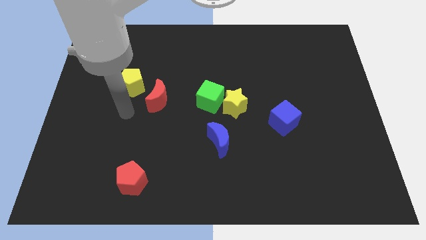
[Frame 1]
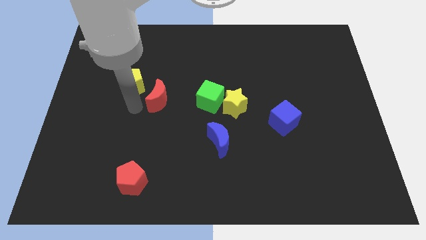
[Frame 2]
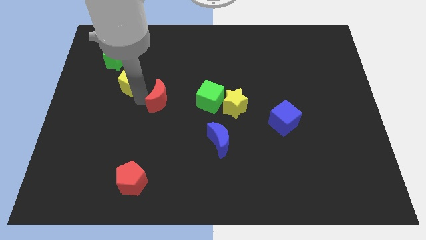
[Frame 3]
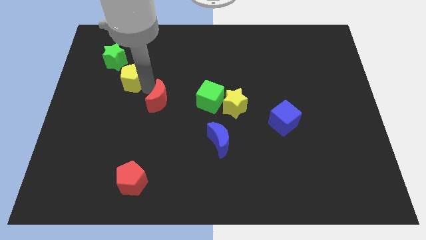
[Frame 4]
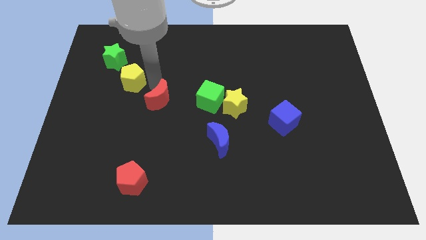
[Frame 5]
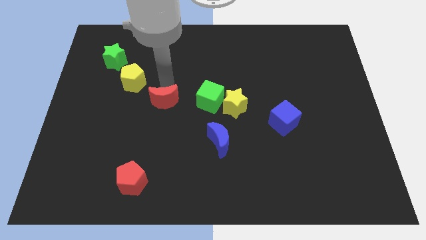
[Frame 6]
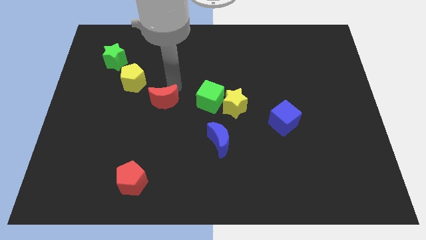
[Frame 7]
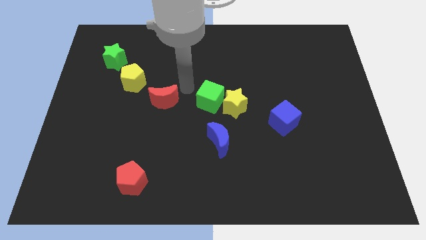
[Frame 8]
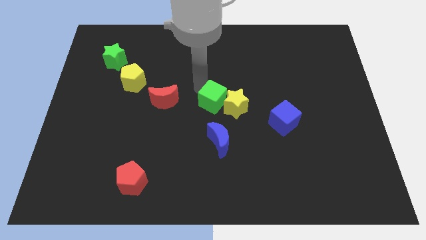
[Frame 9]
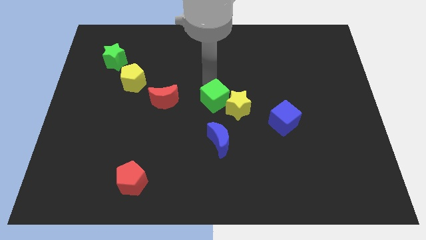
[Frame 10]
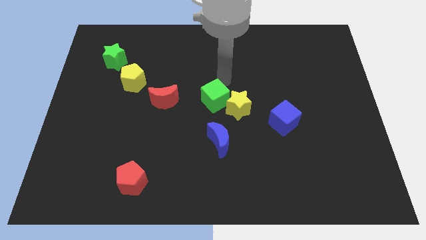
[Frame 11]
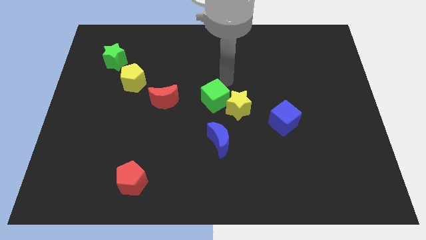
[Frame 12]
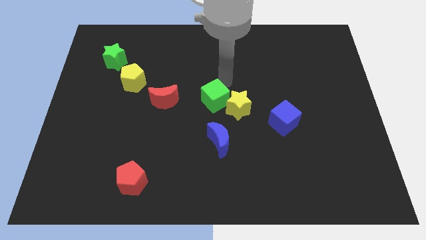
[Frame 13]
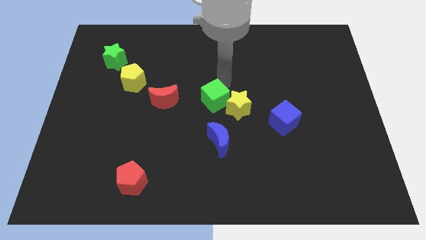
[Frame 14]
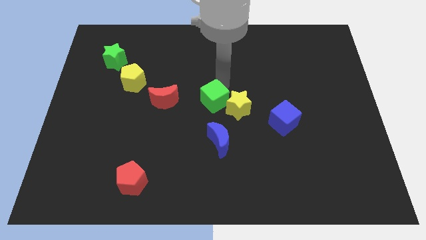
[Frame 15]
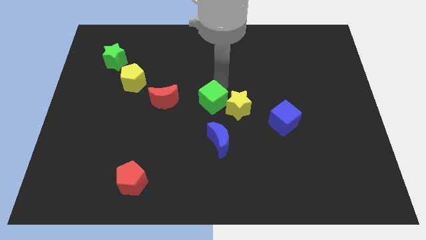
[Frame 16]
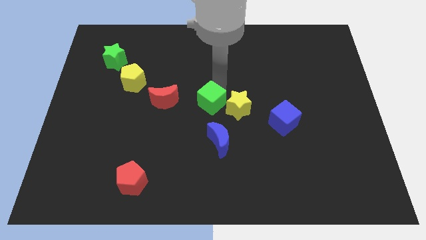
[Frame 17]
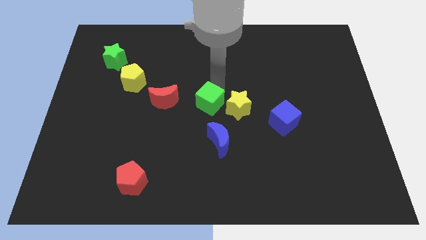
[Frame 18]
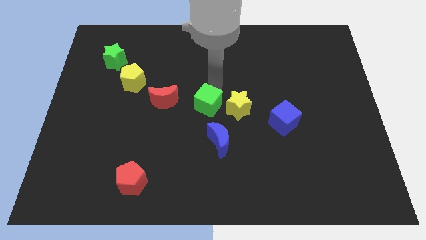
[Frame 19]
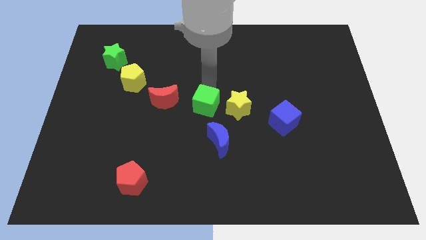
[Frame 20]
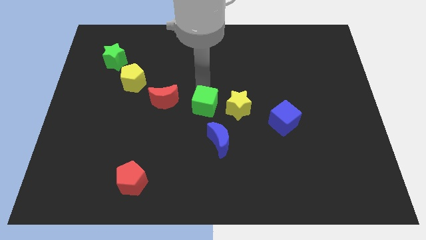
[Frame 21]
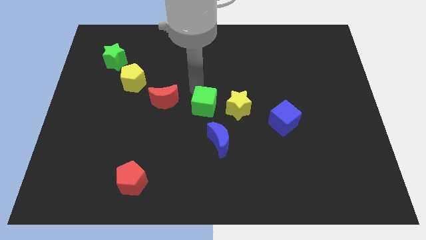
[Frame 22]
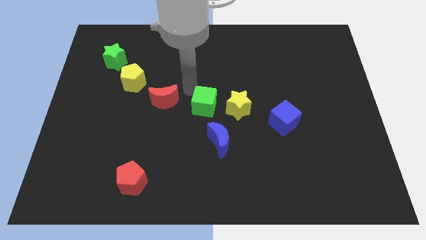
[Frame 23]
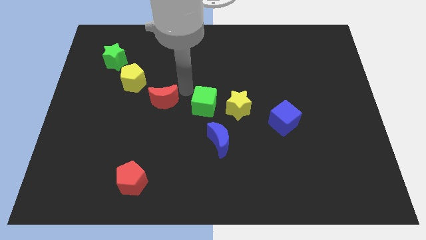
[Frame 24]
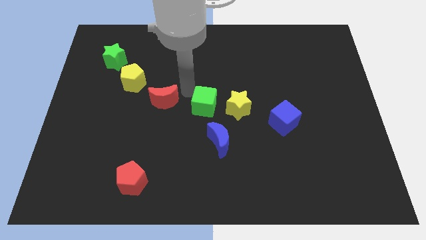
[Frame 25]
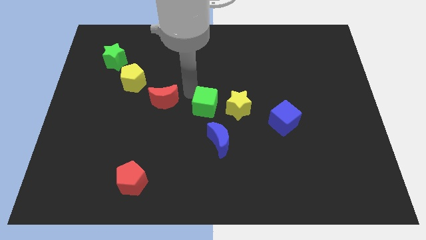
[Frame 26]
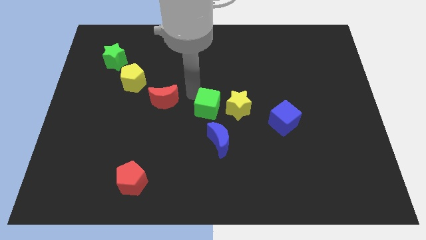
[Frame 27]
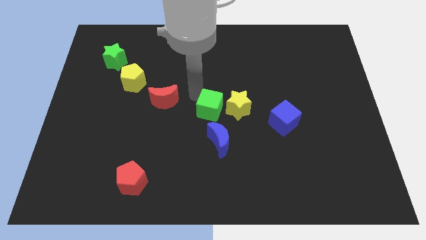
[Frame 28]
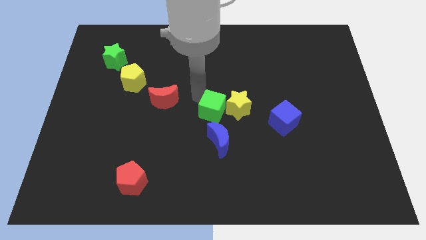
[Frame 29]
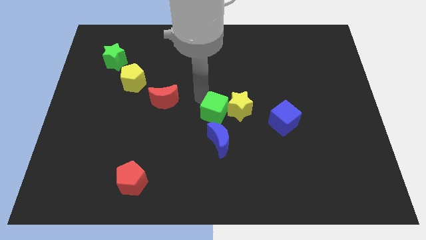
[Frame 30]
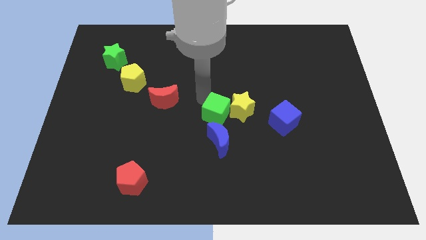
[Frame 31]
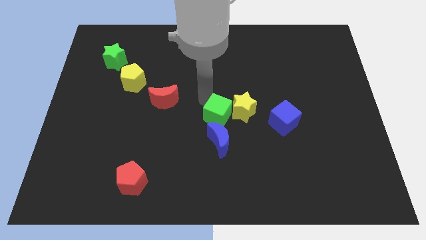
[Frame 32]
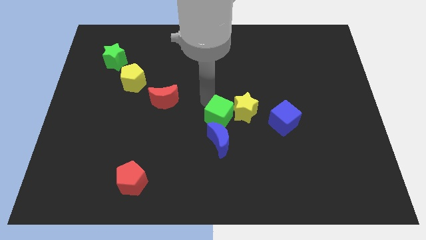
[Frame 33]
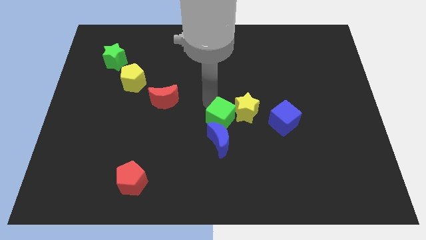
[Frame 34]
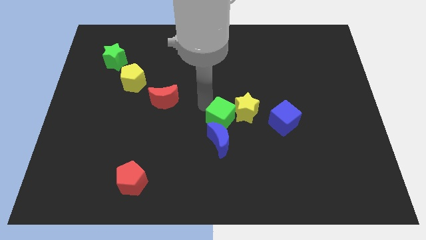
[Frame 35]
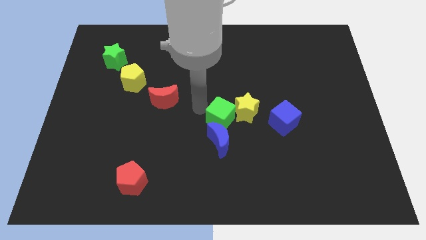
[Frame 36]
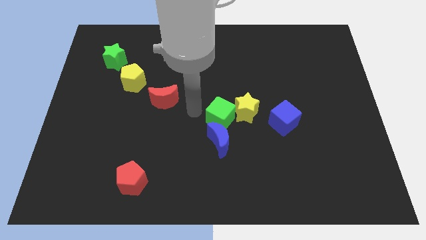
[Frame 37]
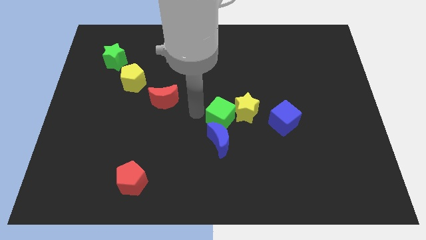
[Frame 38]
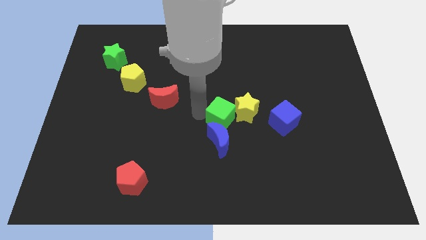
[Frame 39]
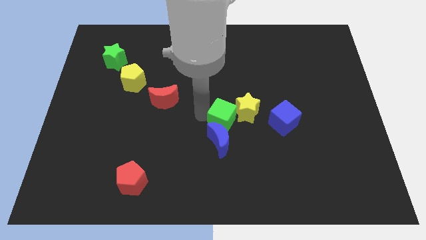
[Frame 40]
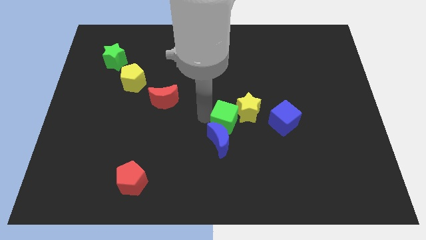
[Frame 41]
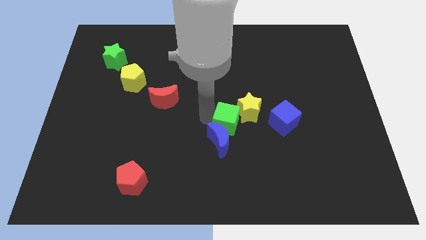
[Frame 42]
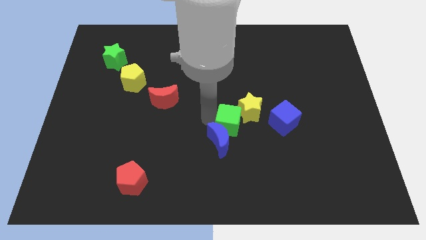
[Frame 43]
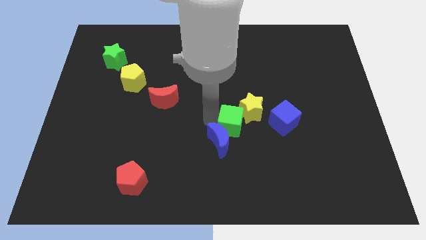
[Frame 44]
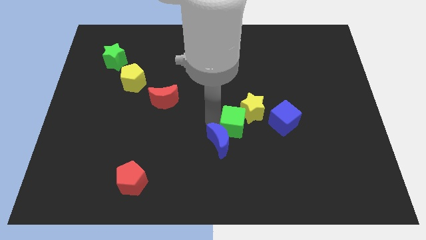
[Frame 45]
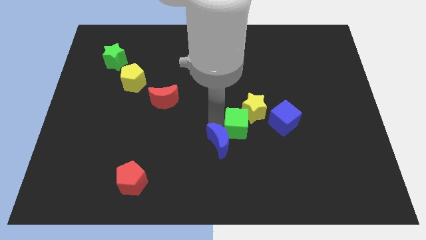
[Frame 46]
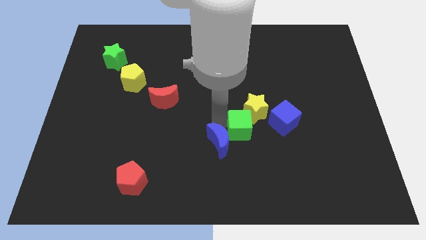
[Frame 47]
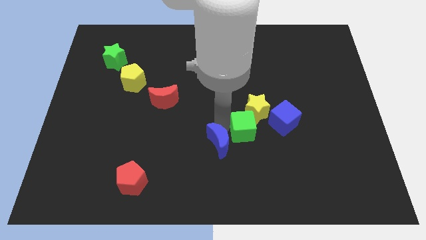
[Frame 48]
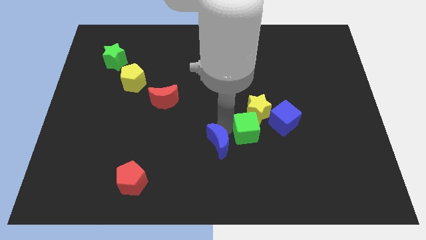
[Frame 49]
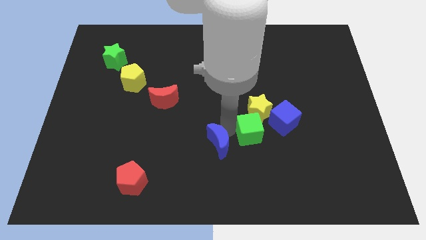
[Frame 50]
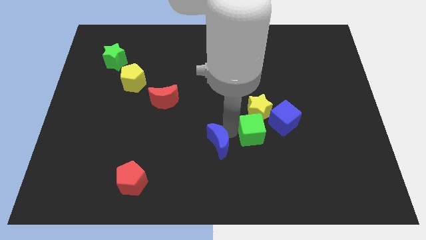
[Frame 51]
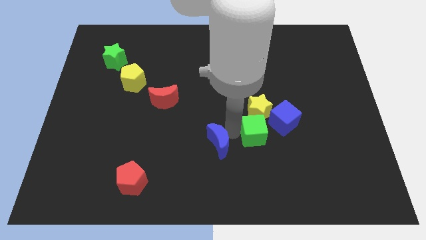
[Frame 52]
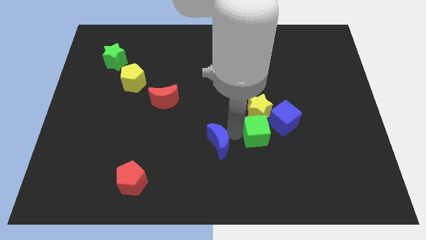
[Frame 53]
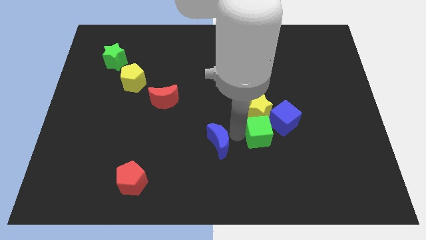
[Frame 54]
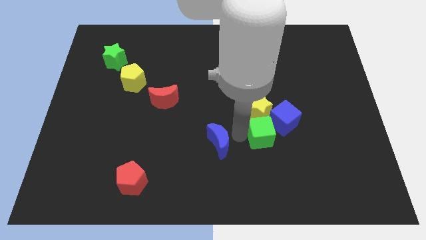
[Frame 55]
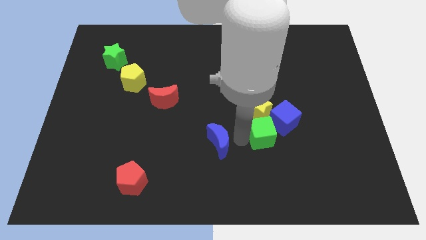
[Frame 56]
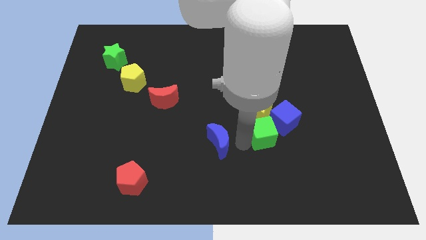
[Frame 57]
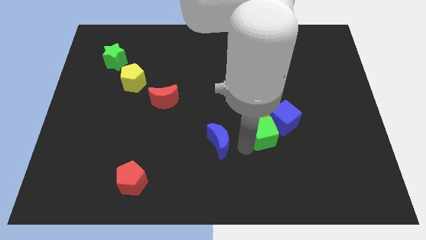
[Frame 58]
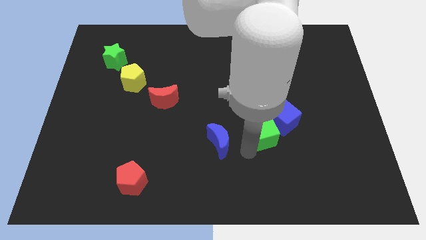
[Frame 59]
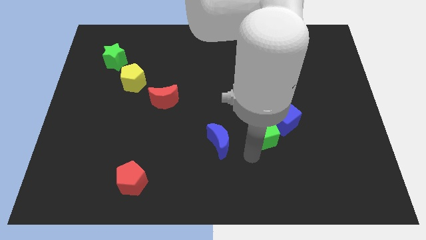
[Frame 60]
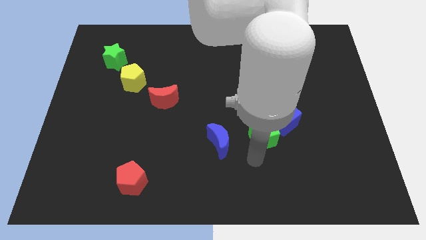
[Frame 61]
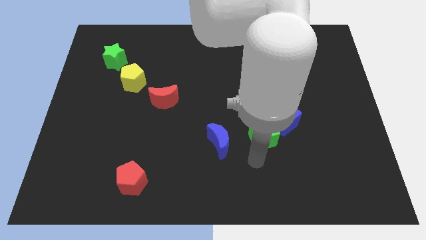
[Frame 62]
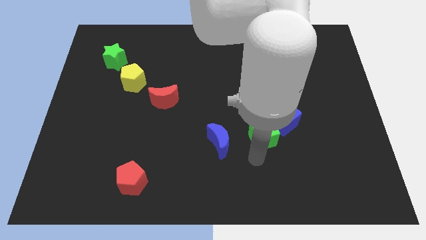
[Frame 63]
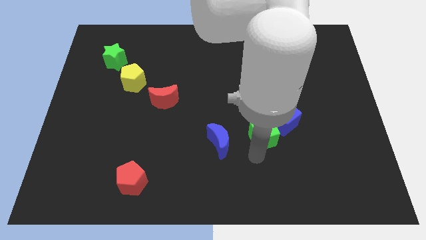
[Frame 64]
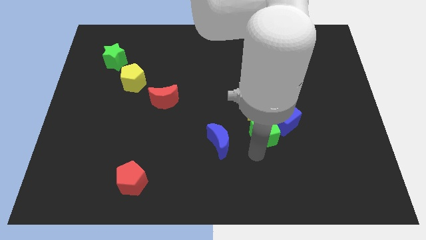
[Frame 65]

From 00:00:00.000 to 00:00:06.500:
slide the green cube to the blue cube

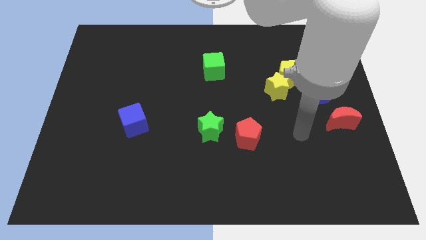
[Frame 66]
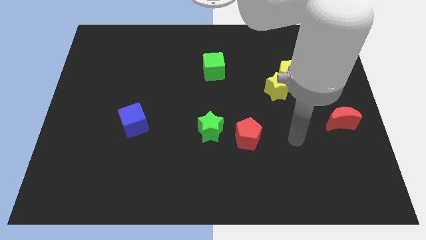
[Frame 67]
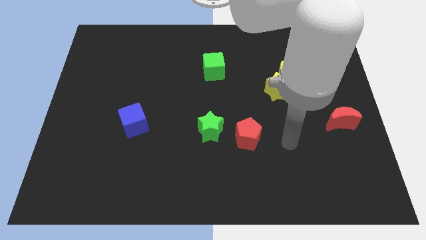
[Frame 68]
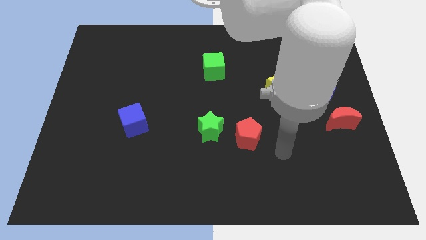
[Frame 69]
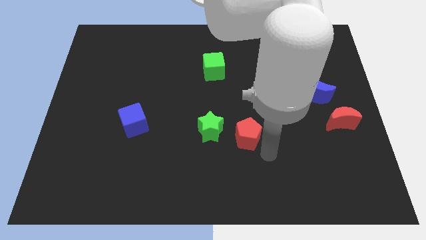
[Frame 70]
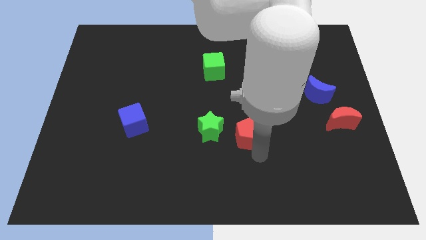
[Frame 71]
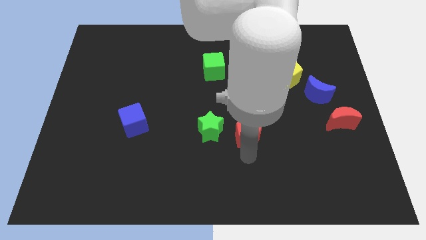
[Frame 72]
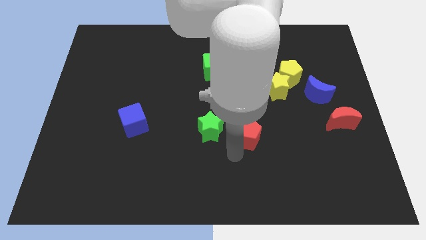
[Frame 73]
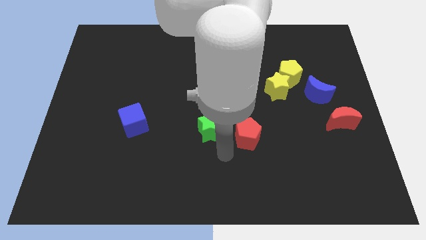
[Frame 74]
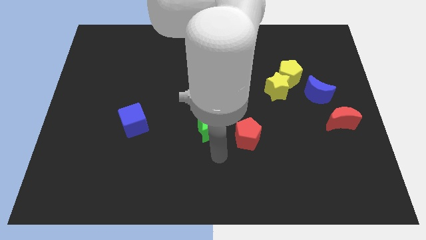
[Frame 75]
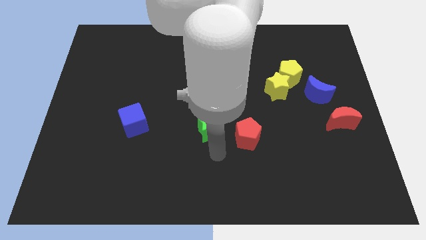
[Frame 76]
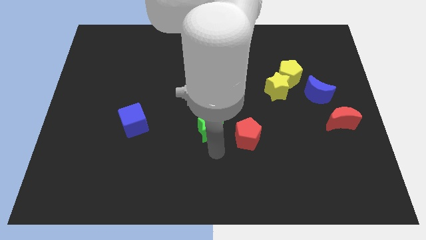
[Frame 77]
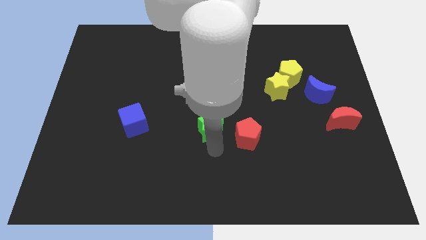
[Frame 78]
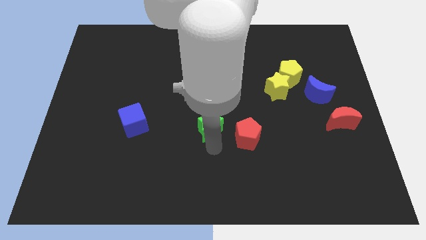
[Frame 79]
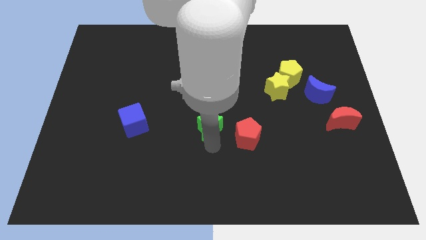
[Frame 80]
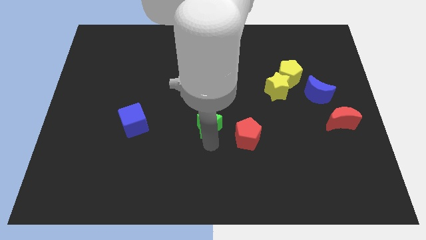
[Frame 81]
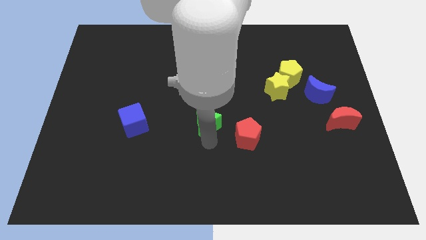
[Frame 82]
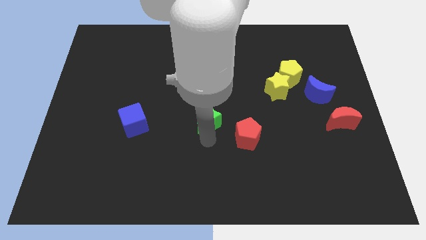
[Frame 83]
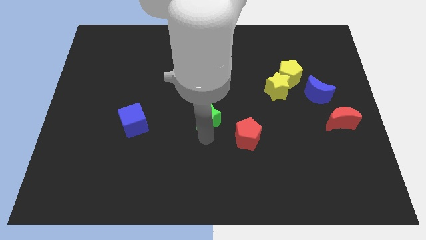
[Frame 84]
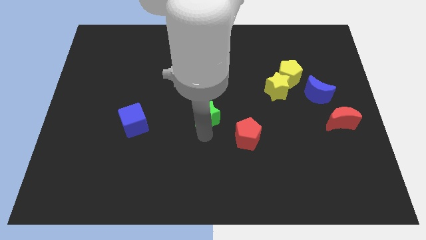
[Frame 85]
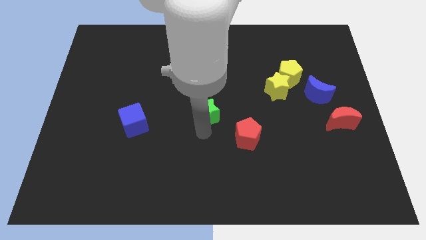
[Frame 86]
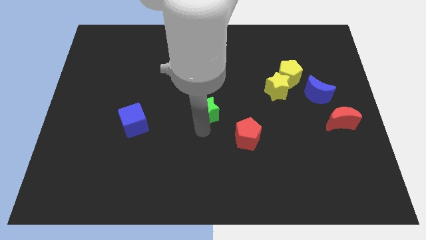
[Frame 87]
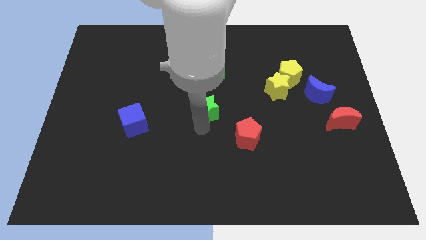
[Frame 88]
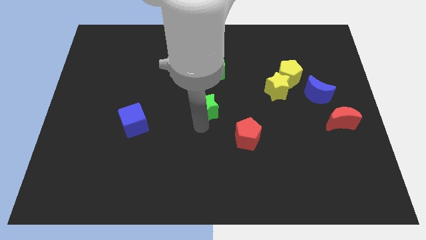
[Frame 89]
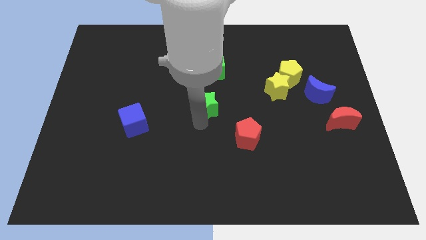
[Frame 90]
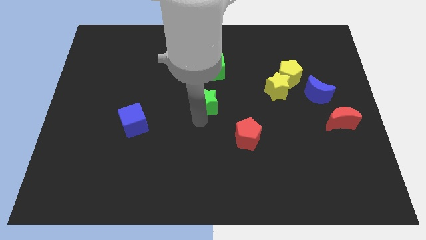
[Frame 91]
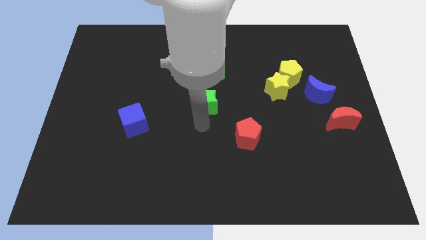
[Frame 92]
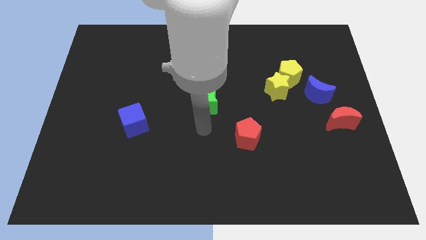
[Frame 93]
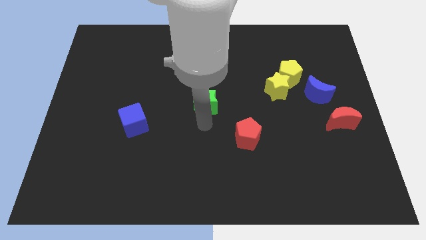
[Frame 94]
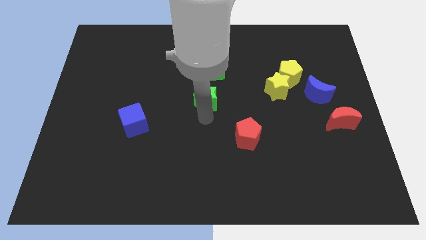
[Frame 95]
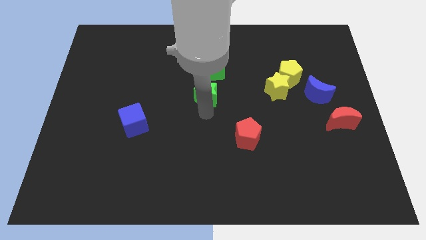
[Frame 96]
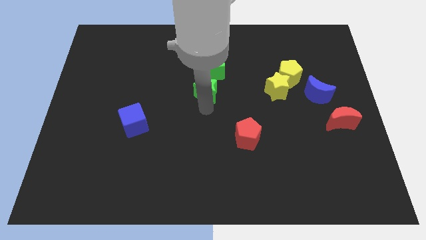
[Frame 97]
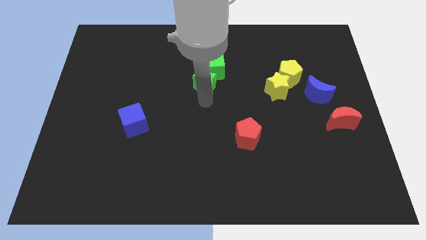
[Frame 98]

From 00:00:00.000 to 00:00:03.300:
put the green star close to the green cube
